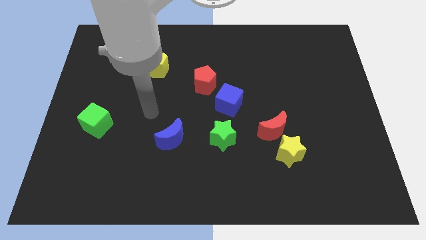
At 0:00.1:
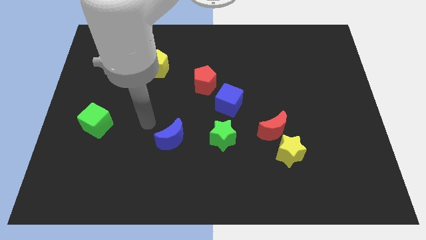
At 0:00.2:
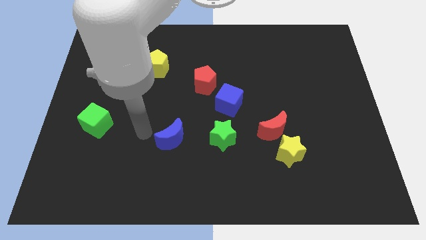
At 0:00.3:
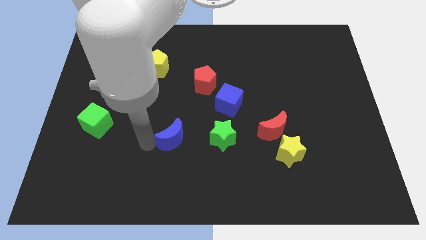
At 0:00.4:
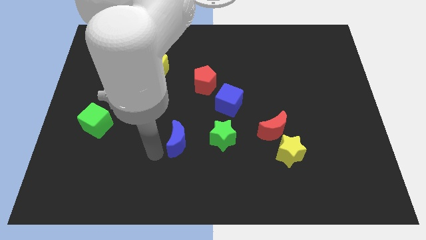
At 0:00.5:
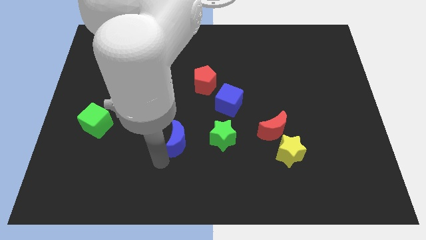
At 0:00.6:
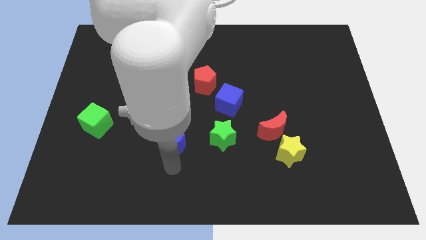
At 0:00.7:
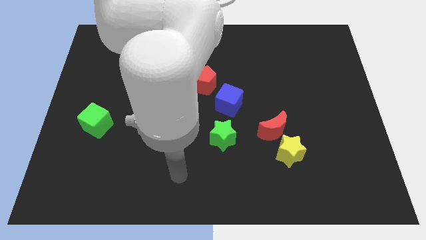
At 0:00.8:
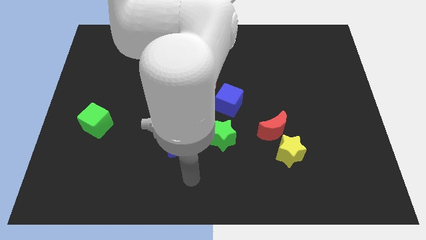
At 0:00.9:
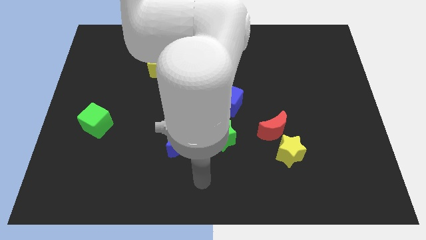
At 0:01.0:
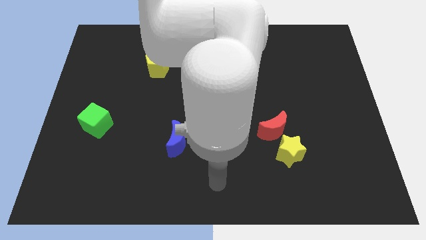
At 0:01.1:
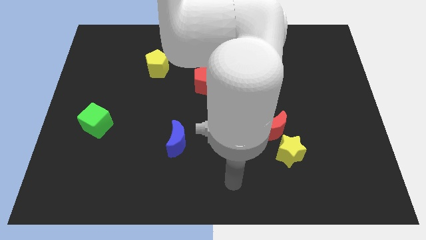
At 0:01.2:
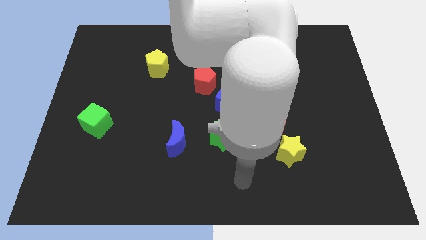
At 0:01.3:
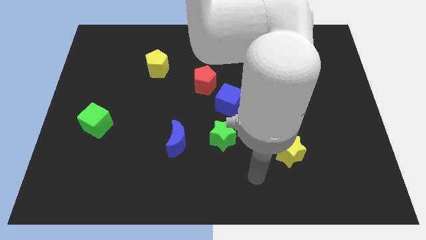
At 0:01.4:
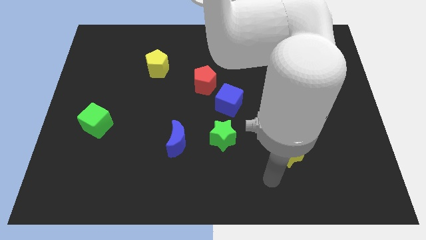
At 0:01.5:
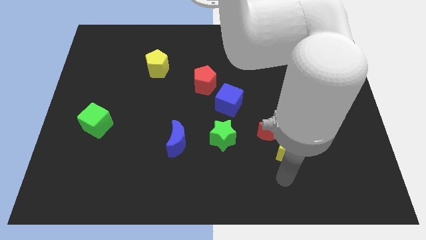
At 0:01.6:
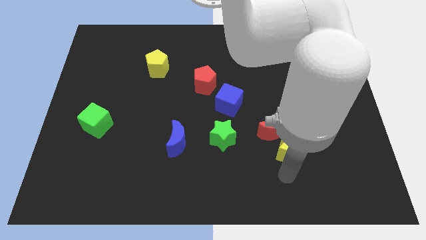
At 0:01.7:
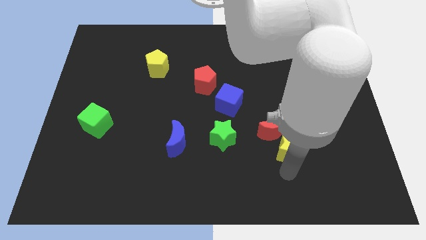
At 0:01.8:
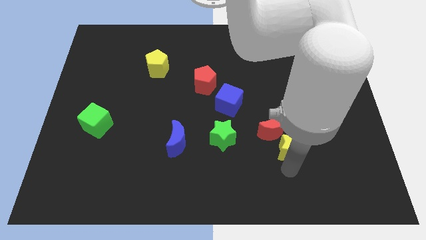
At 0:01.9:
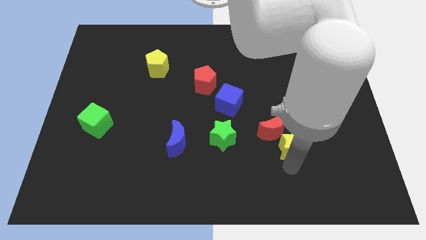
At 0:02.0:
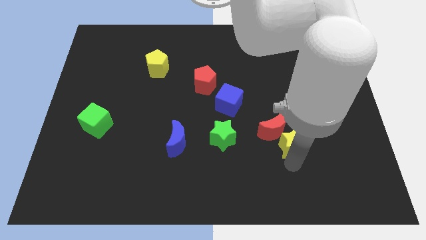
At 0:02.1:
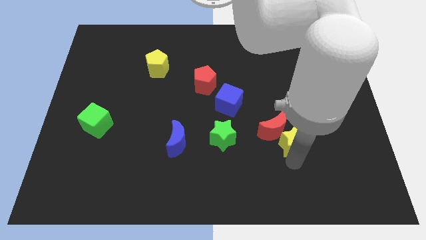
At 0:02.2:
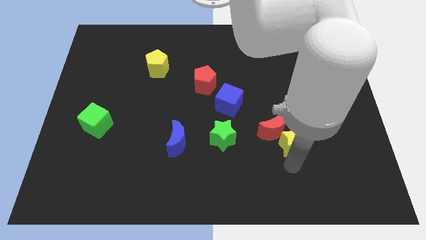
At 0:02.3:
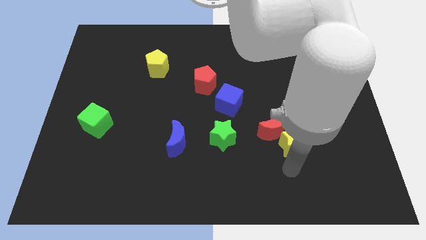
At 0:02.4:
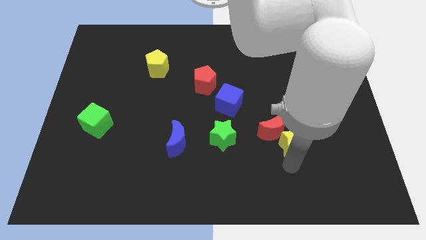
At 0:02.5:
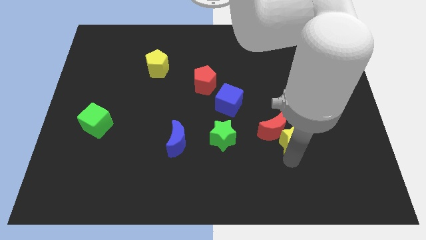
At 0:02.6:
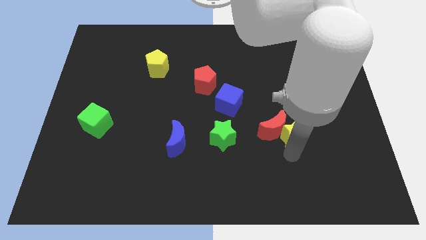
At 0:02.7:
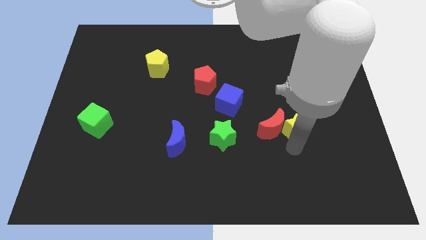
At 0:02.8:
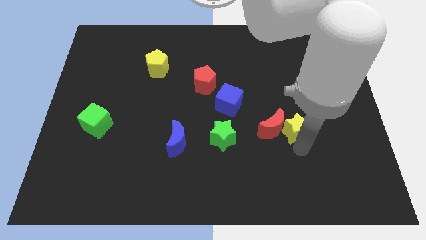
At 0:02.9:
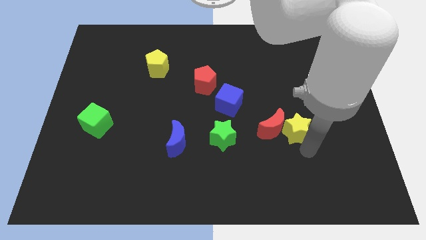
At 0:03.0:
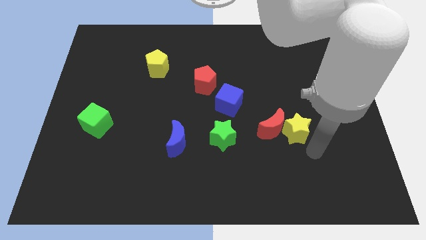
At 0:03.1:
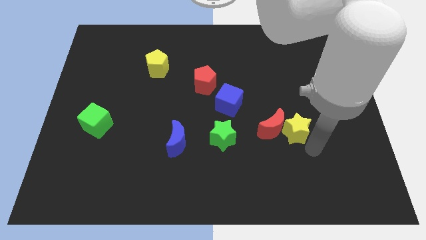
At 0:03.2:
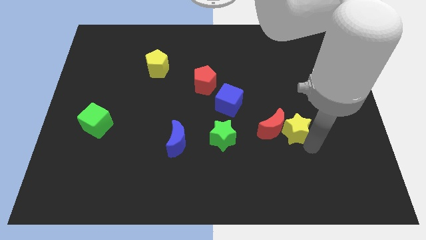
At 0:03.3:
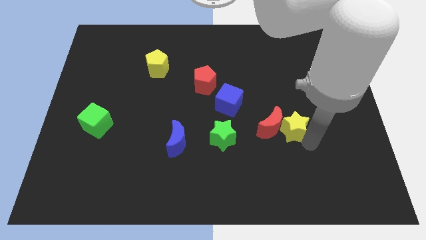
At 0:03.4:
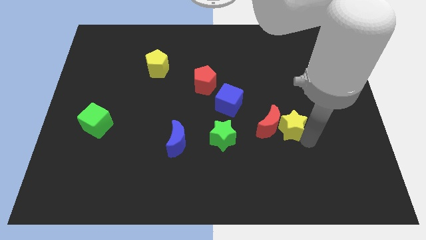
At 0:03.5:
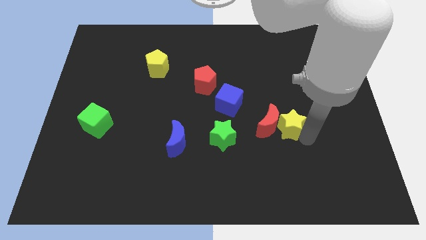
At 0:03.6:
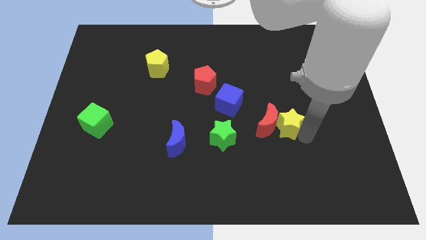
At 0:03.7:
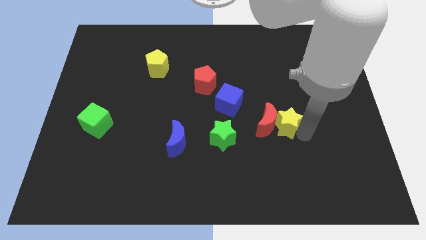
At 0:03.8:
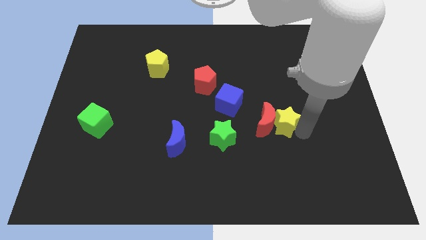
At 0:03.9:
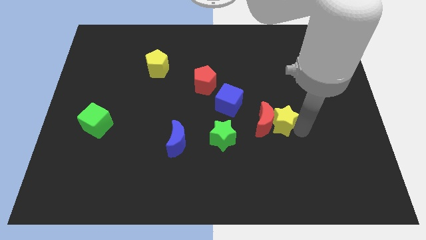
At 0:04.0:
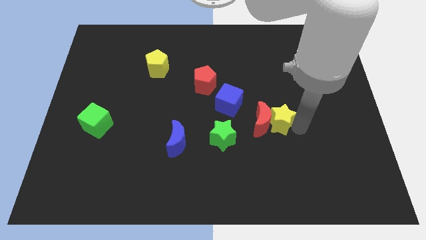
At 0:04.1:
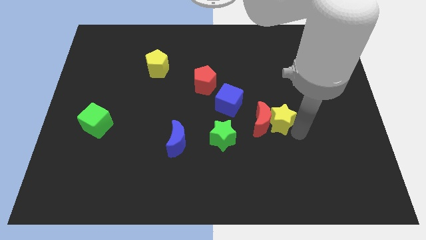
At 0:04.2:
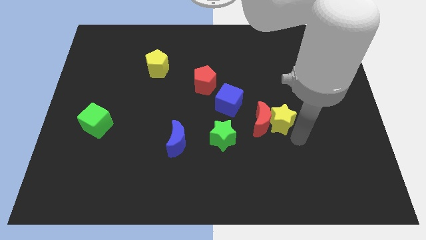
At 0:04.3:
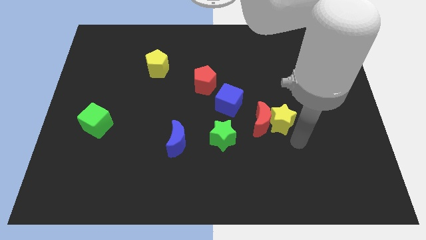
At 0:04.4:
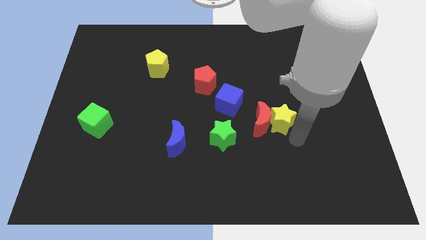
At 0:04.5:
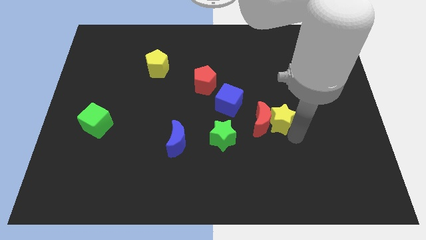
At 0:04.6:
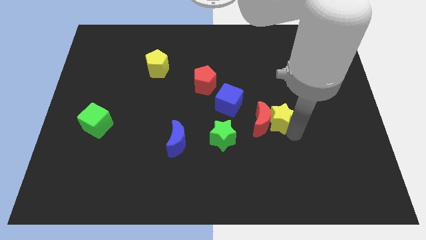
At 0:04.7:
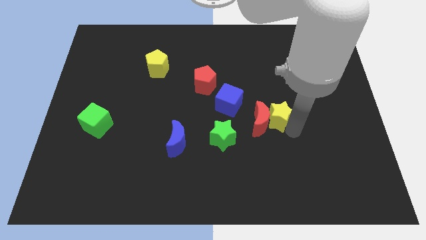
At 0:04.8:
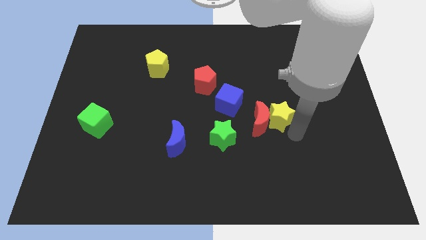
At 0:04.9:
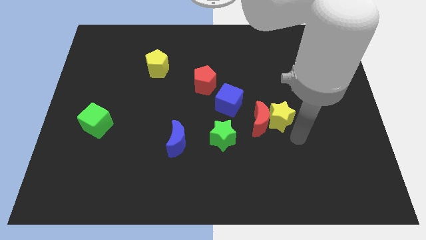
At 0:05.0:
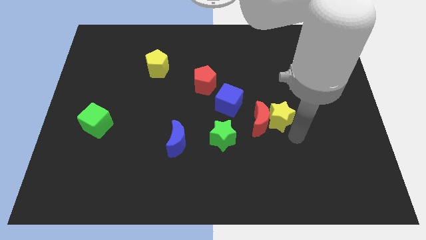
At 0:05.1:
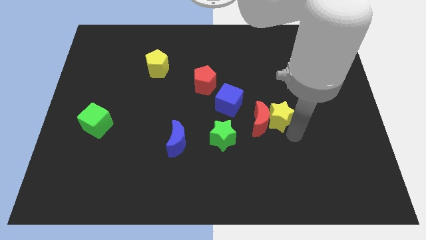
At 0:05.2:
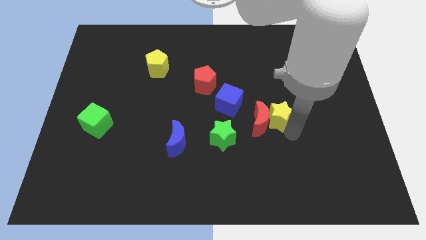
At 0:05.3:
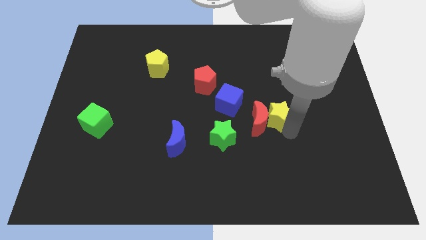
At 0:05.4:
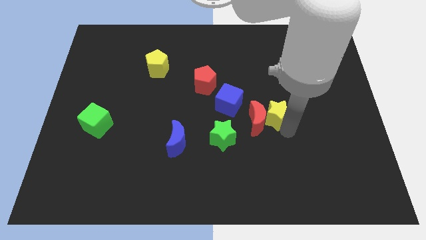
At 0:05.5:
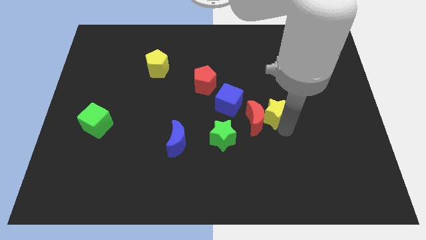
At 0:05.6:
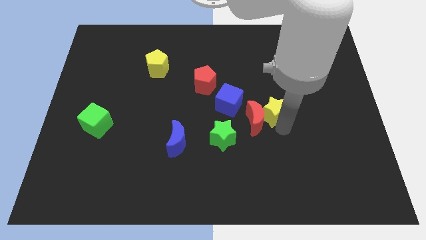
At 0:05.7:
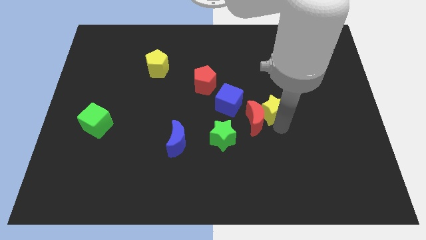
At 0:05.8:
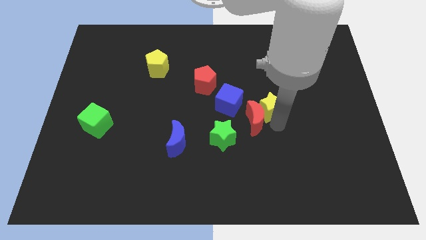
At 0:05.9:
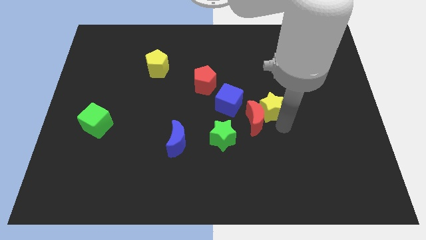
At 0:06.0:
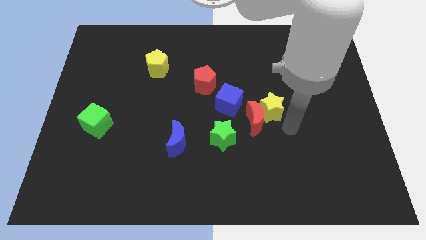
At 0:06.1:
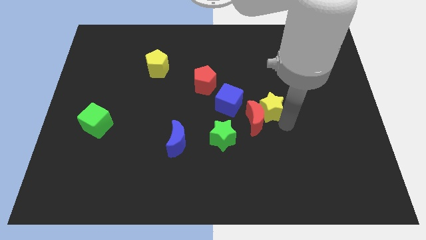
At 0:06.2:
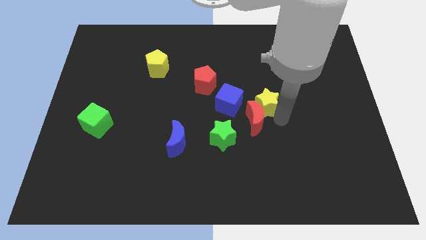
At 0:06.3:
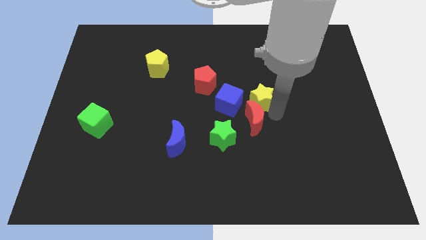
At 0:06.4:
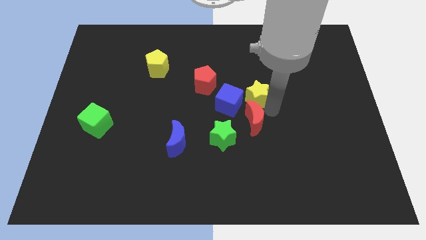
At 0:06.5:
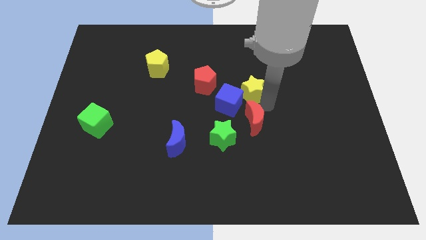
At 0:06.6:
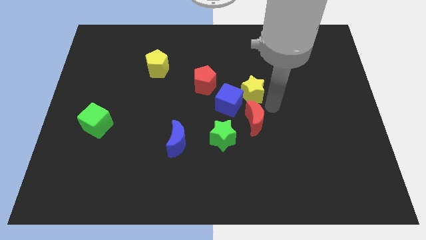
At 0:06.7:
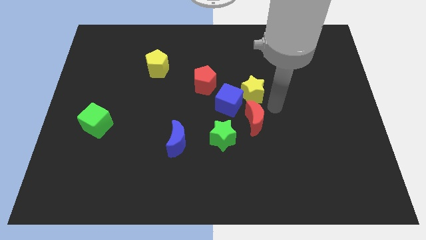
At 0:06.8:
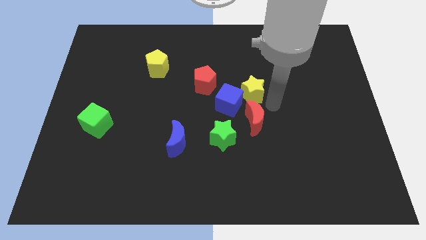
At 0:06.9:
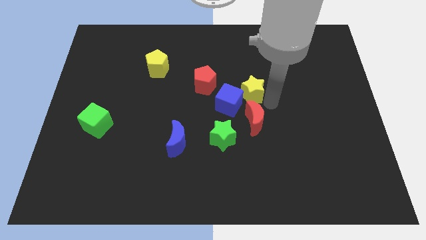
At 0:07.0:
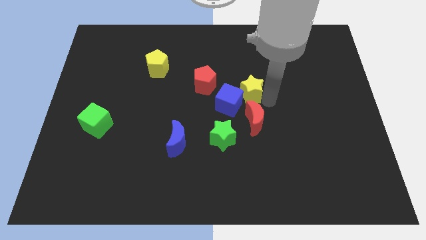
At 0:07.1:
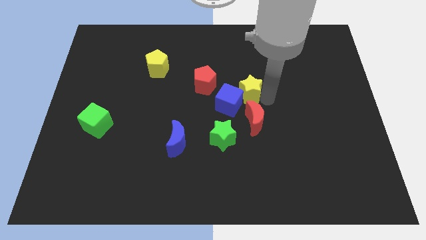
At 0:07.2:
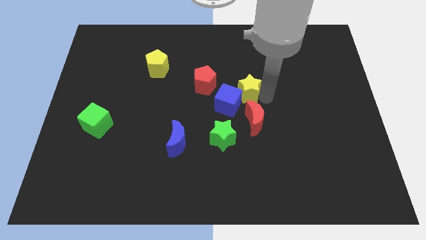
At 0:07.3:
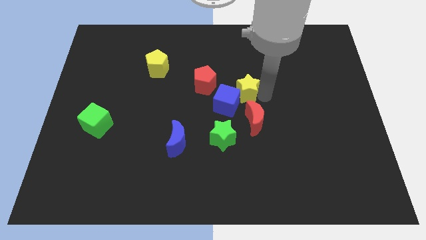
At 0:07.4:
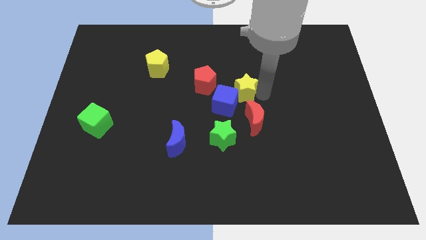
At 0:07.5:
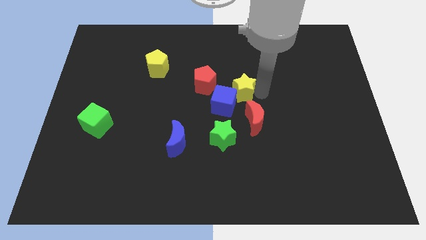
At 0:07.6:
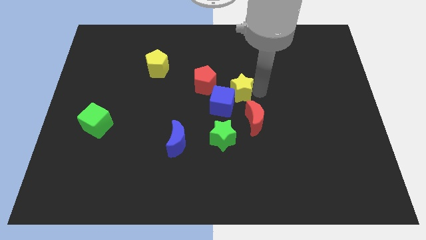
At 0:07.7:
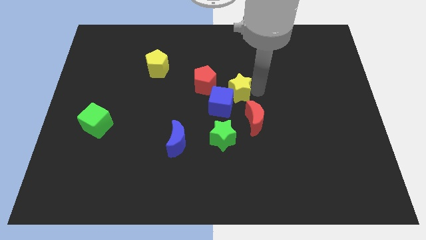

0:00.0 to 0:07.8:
push the yellow star to the top of the blue cube
